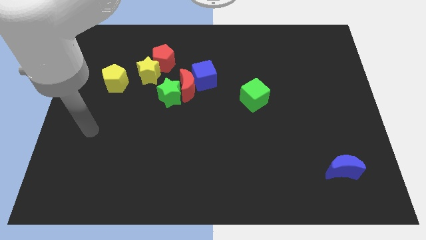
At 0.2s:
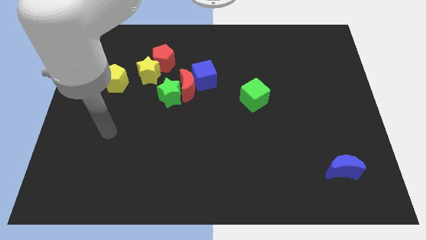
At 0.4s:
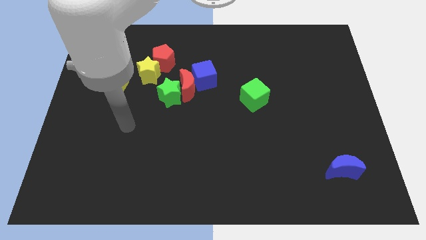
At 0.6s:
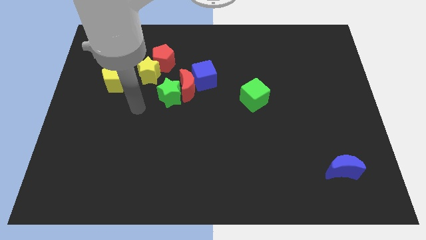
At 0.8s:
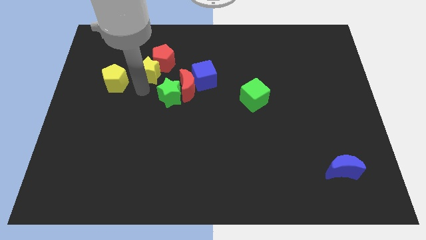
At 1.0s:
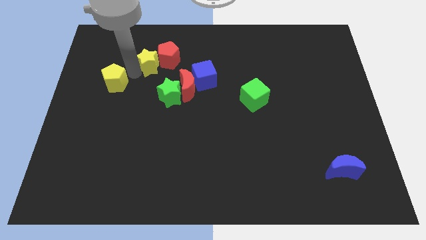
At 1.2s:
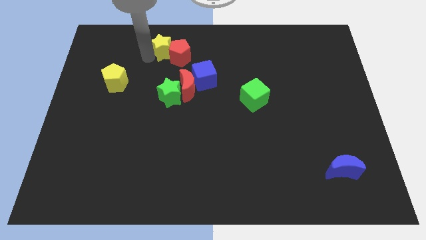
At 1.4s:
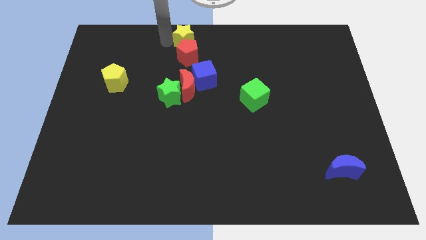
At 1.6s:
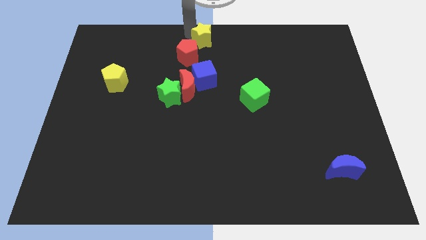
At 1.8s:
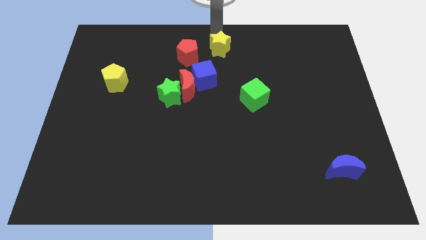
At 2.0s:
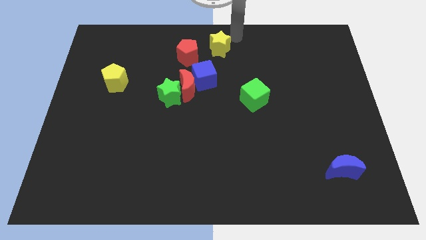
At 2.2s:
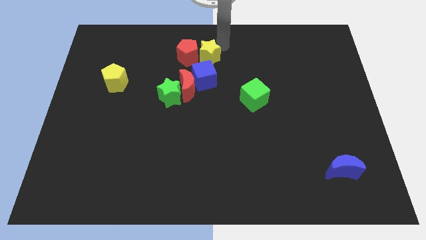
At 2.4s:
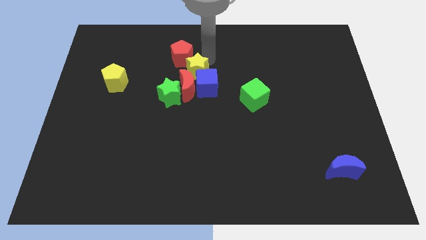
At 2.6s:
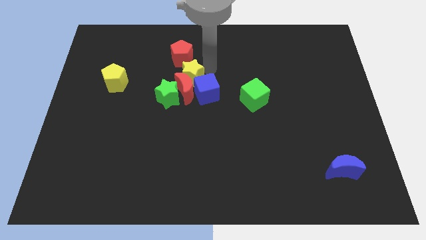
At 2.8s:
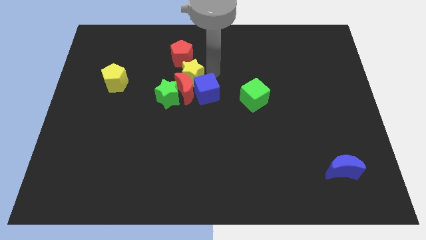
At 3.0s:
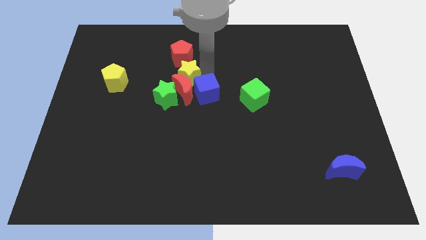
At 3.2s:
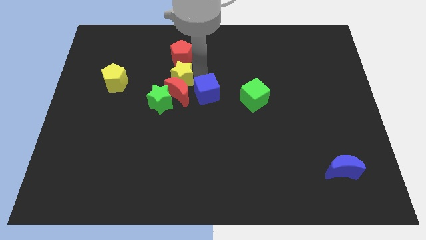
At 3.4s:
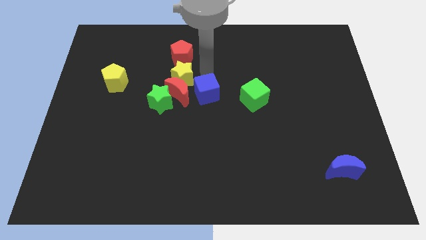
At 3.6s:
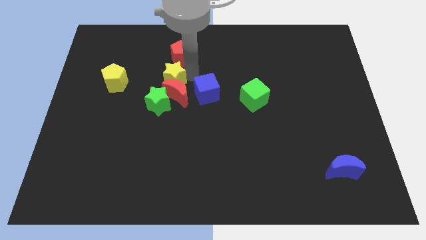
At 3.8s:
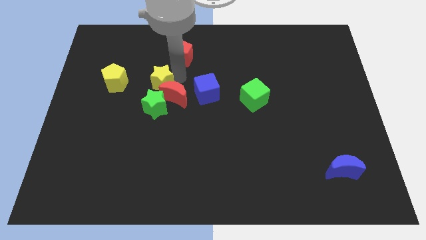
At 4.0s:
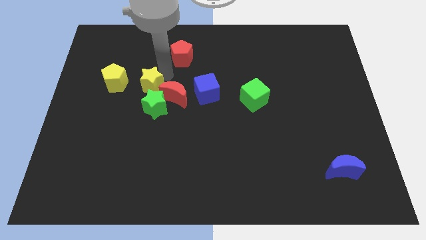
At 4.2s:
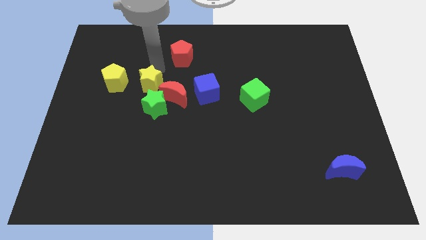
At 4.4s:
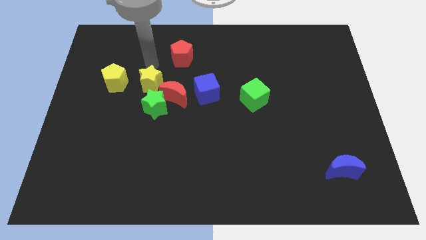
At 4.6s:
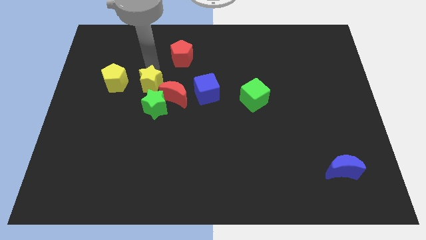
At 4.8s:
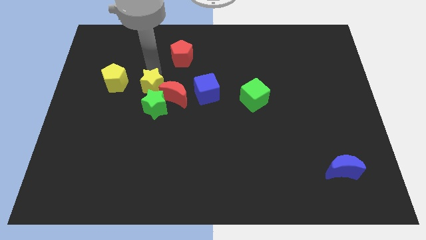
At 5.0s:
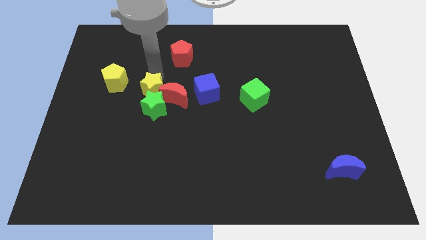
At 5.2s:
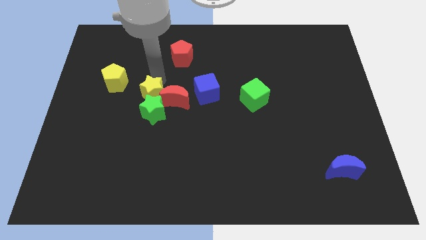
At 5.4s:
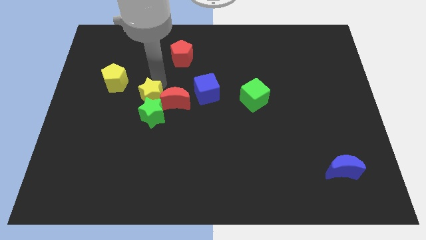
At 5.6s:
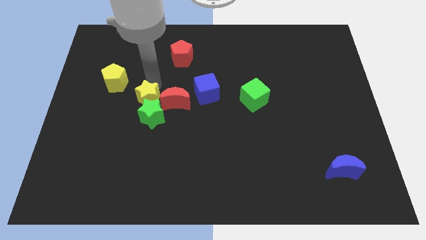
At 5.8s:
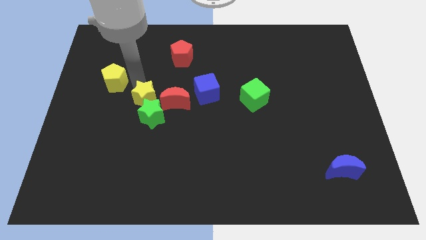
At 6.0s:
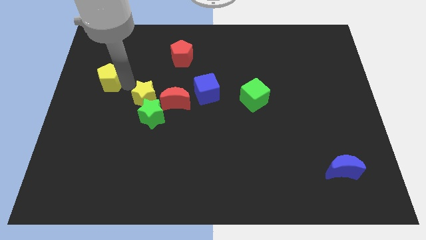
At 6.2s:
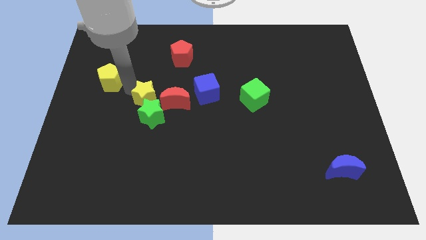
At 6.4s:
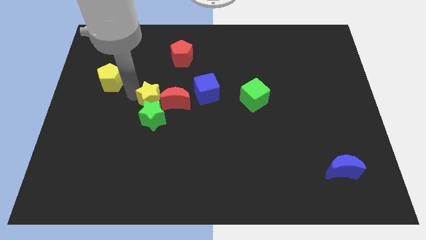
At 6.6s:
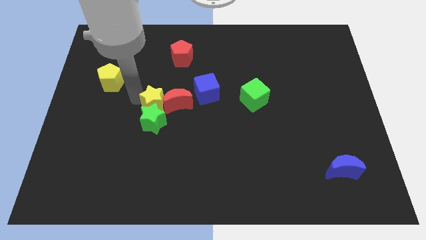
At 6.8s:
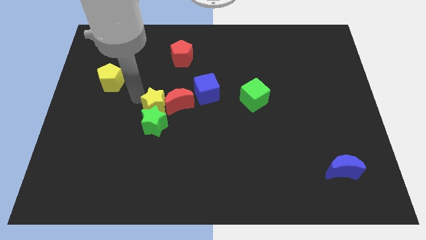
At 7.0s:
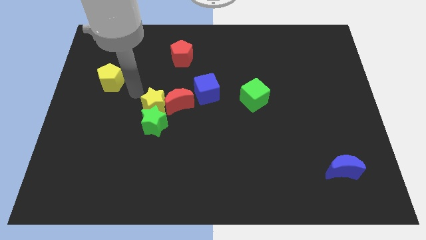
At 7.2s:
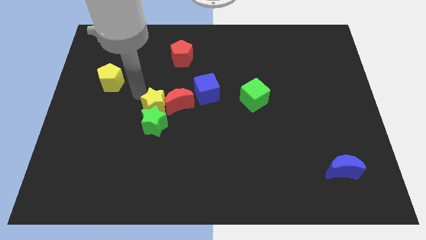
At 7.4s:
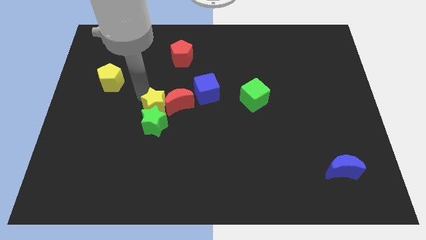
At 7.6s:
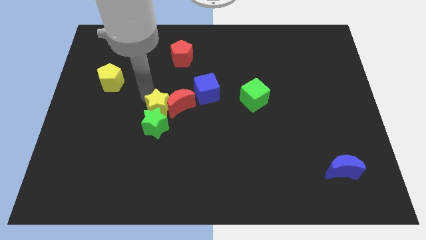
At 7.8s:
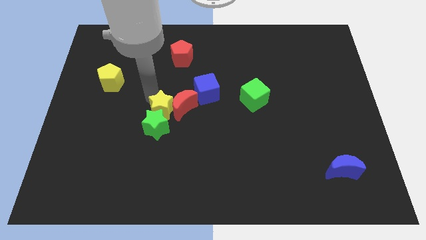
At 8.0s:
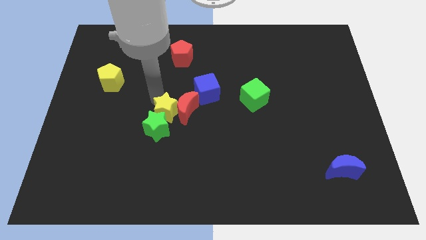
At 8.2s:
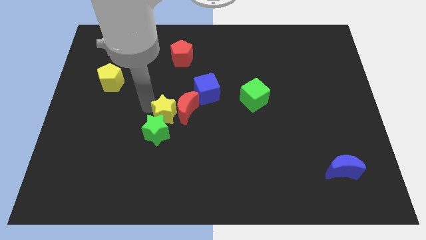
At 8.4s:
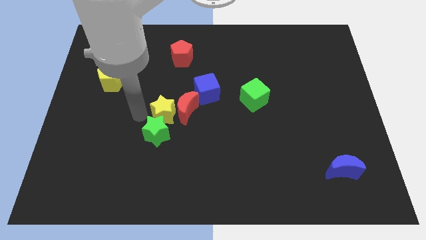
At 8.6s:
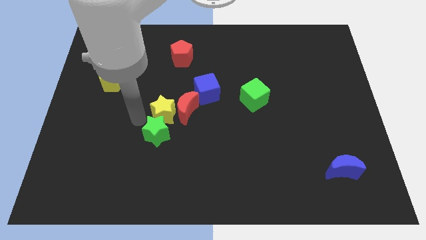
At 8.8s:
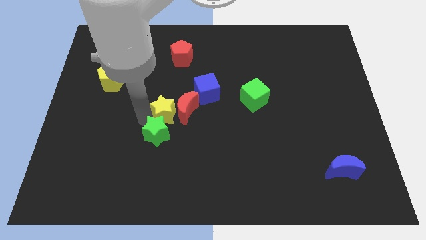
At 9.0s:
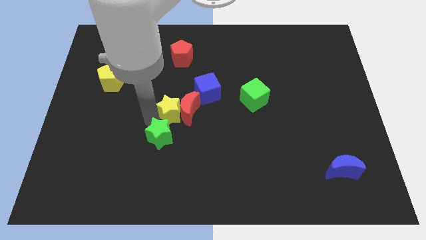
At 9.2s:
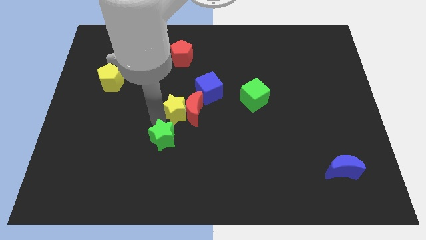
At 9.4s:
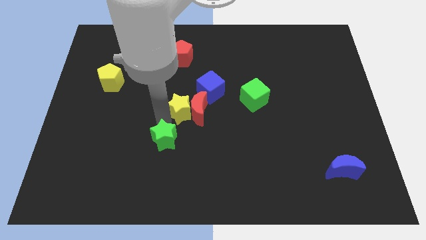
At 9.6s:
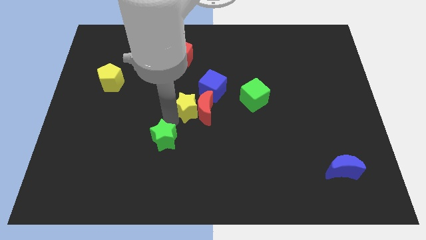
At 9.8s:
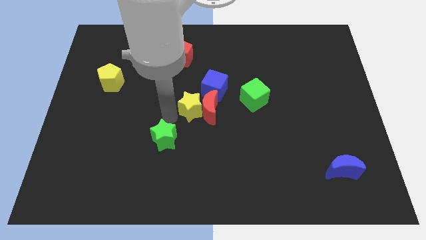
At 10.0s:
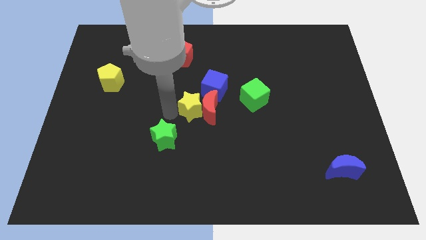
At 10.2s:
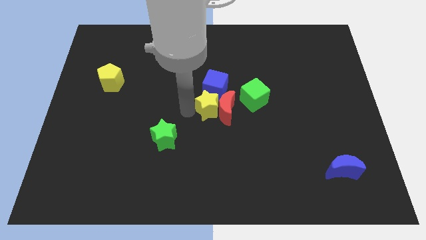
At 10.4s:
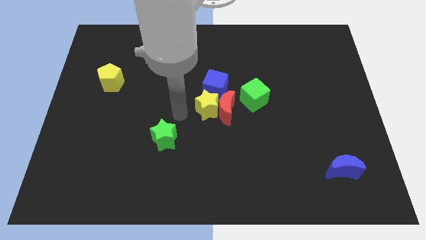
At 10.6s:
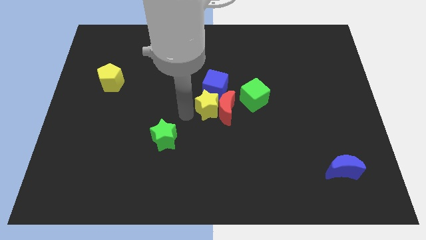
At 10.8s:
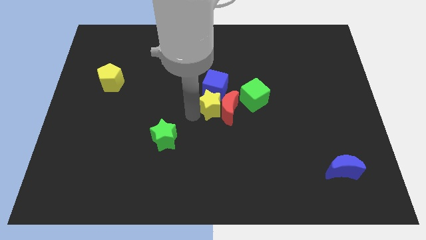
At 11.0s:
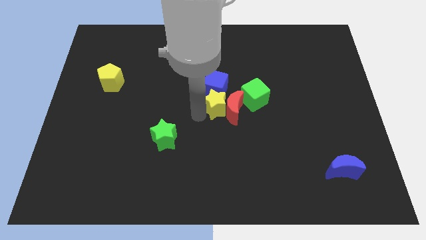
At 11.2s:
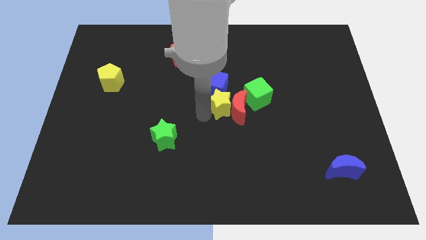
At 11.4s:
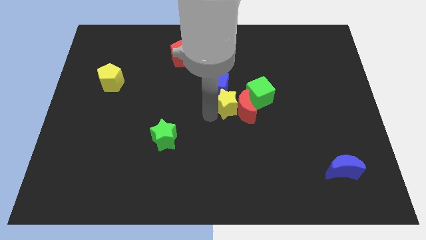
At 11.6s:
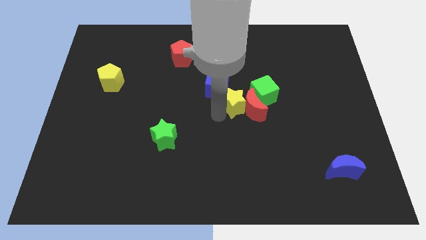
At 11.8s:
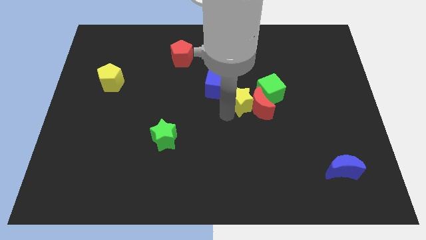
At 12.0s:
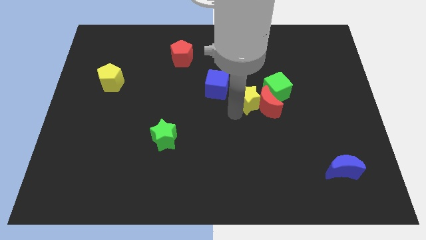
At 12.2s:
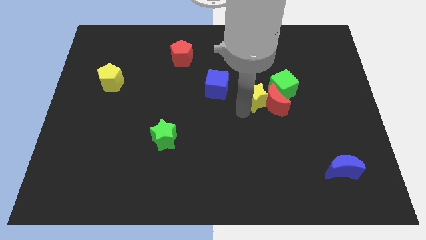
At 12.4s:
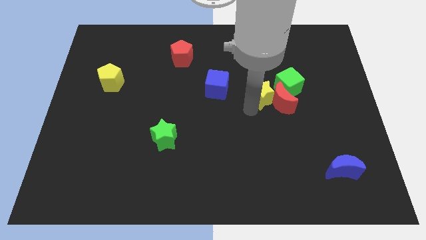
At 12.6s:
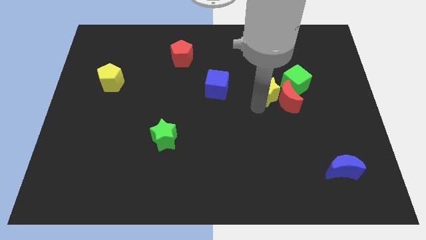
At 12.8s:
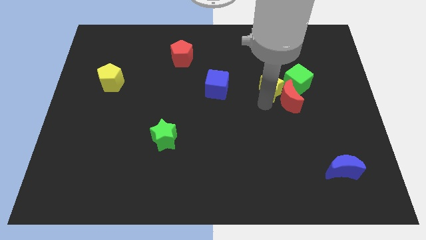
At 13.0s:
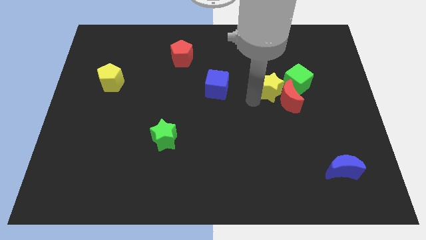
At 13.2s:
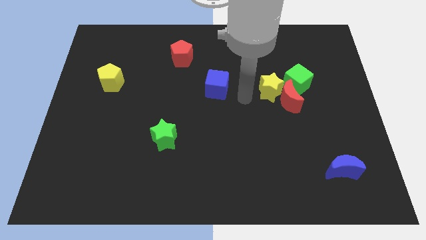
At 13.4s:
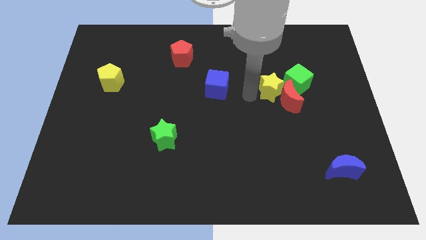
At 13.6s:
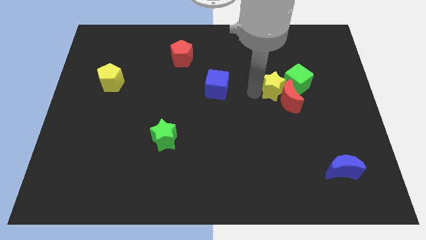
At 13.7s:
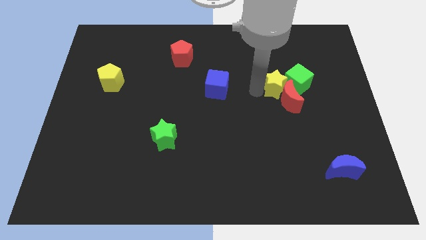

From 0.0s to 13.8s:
move the yellow star towards the green cube

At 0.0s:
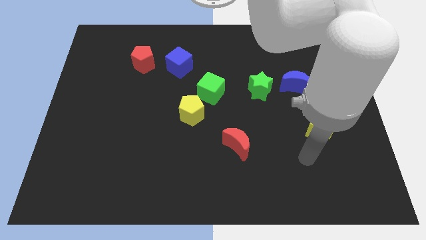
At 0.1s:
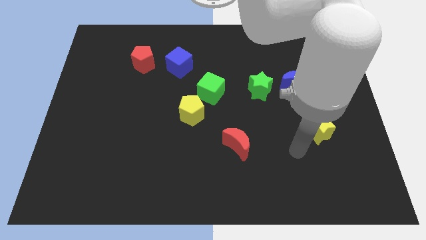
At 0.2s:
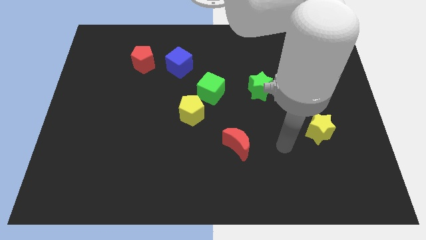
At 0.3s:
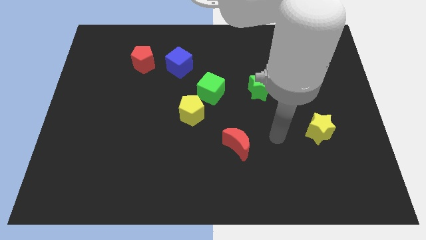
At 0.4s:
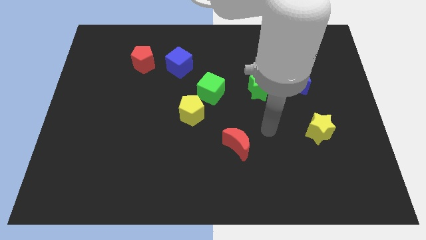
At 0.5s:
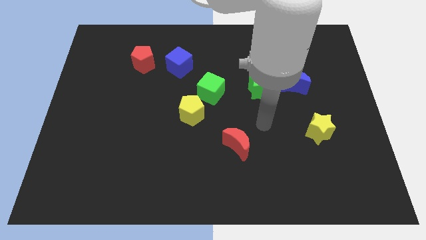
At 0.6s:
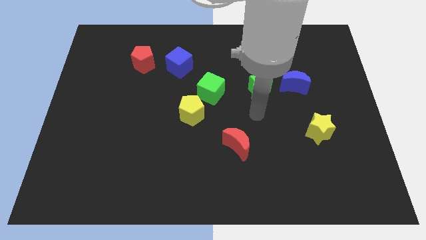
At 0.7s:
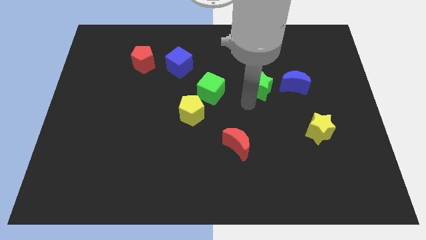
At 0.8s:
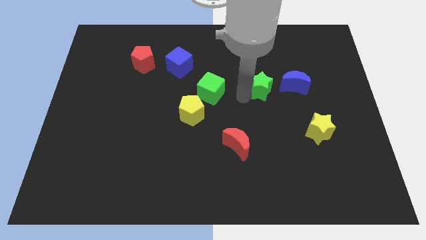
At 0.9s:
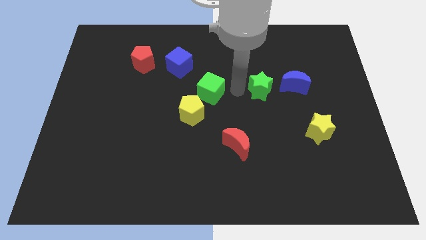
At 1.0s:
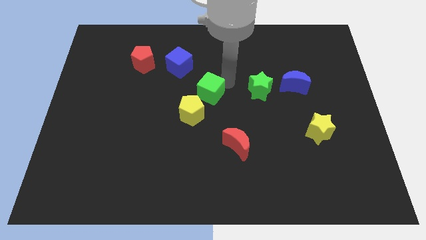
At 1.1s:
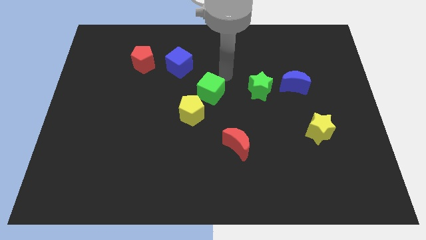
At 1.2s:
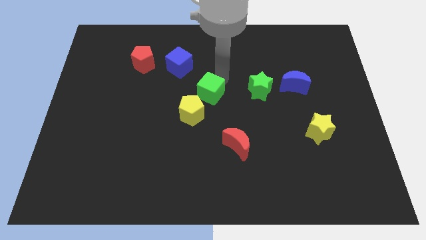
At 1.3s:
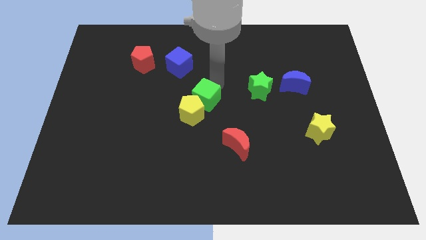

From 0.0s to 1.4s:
move the green cube to the yellow pentagon
